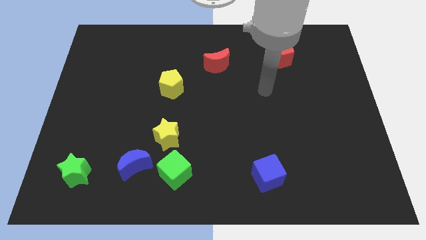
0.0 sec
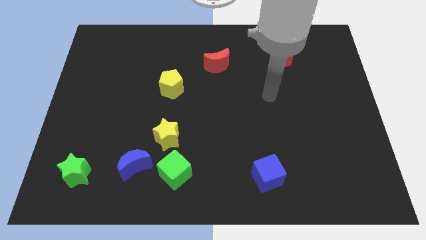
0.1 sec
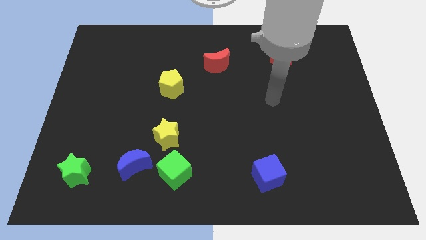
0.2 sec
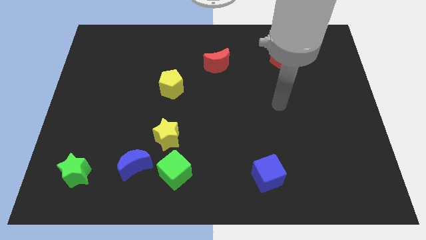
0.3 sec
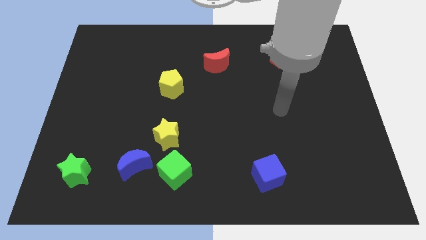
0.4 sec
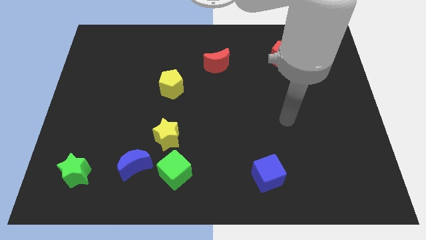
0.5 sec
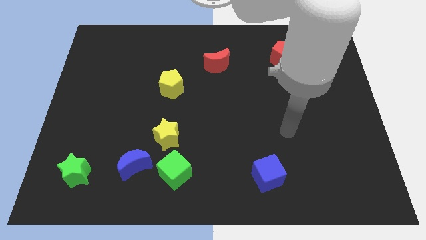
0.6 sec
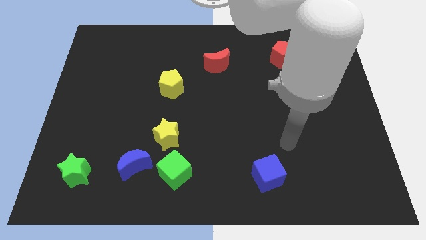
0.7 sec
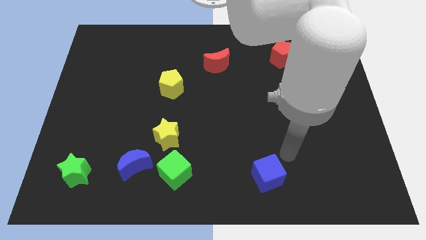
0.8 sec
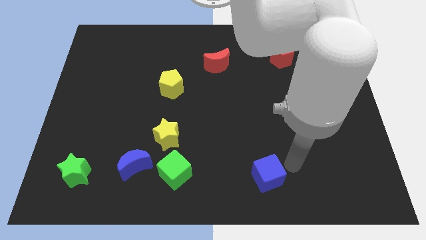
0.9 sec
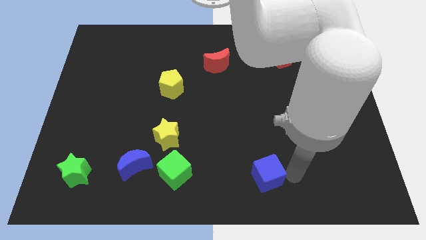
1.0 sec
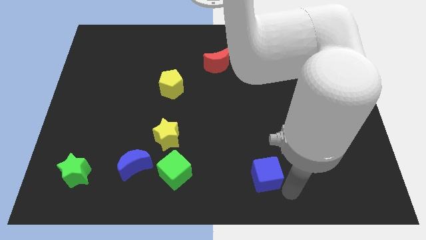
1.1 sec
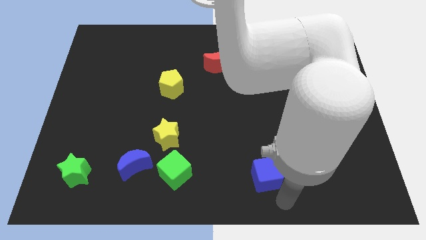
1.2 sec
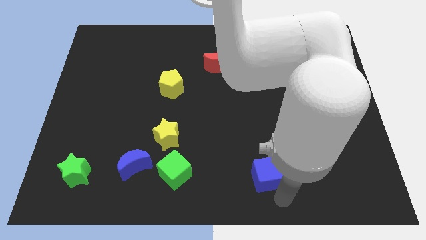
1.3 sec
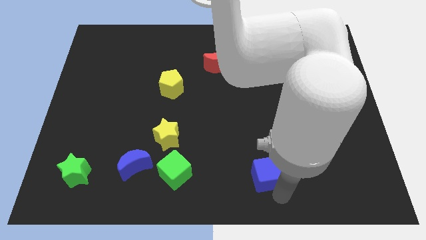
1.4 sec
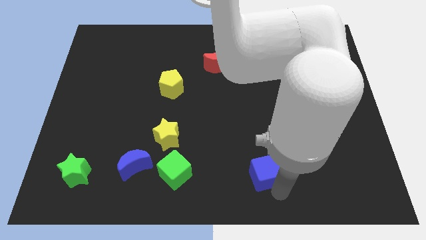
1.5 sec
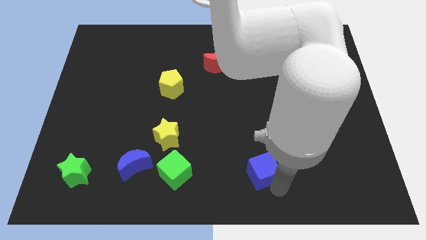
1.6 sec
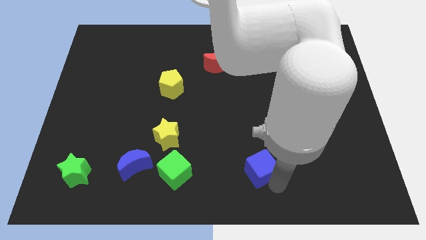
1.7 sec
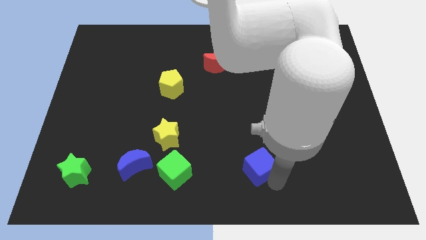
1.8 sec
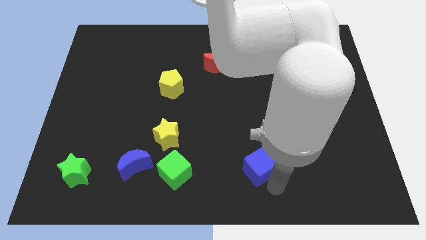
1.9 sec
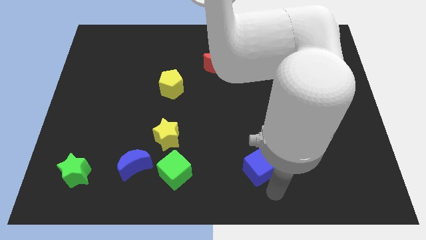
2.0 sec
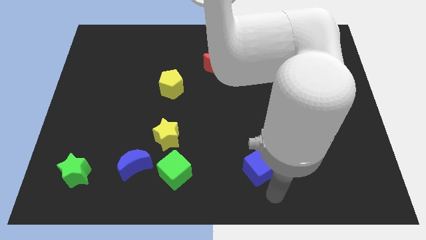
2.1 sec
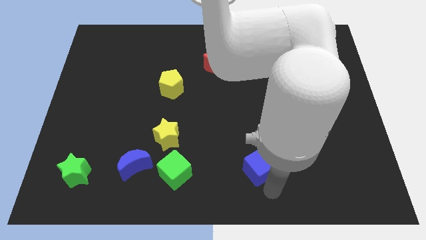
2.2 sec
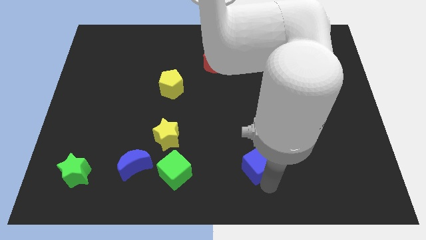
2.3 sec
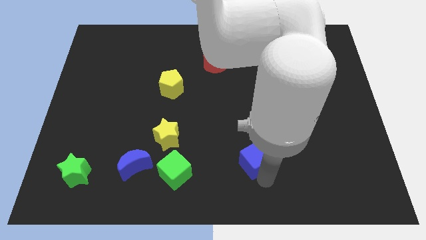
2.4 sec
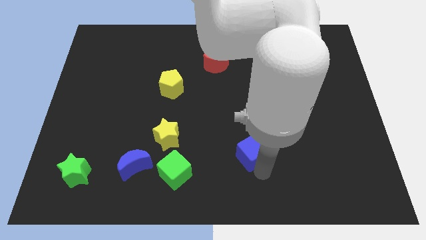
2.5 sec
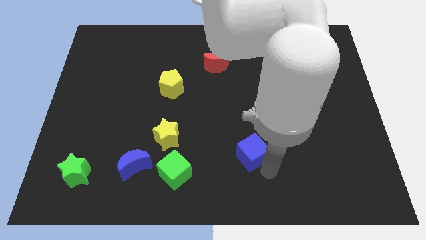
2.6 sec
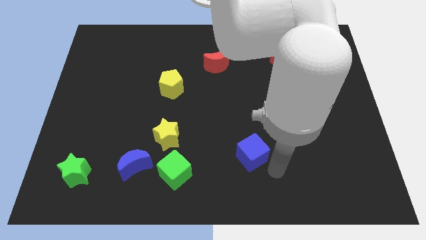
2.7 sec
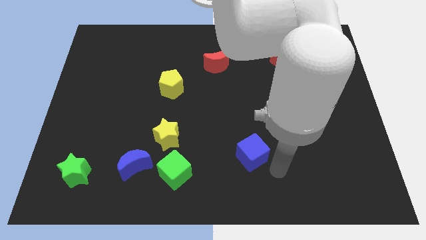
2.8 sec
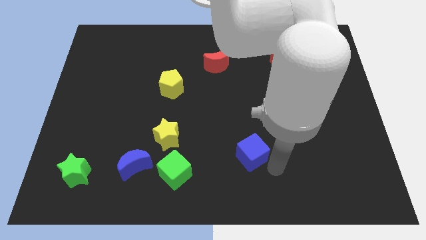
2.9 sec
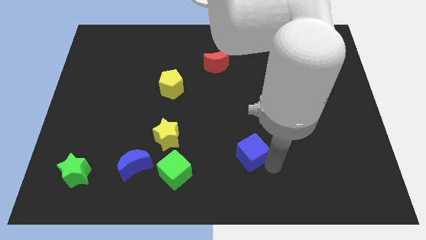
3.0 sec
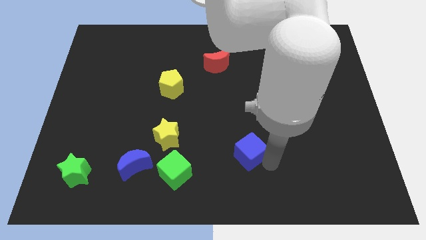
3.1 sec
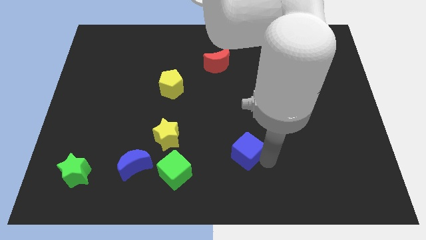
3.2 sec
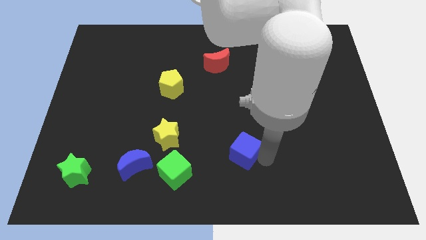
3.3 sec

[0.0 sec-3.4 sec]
slightly push the blue cube upwards and to the left

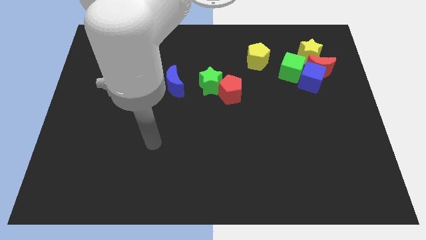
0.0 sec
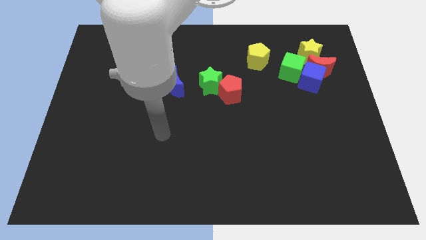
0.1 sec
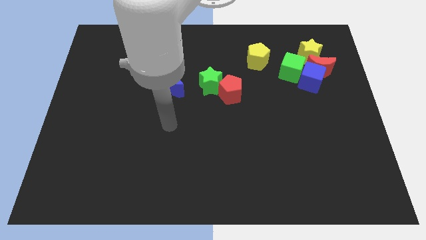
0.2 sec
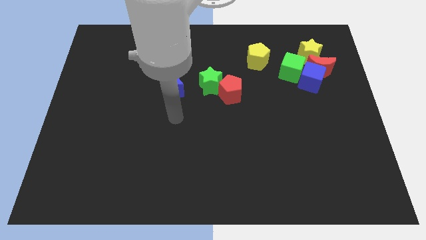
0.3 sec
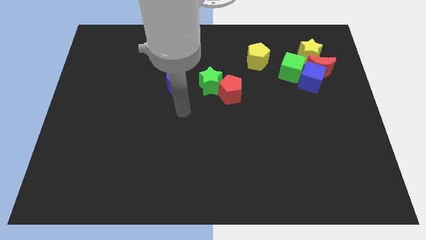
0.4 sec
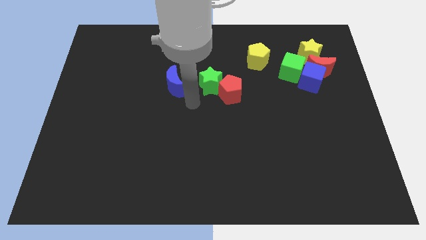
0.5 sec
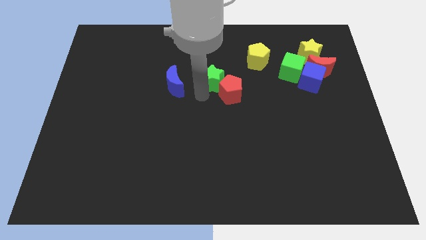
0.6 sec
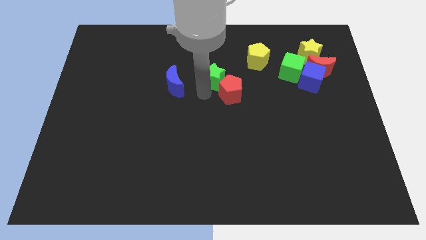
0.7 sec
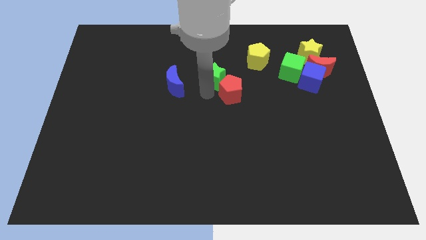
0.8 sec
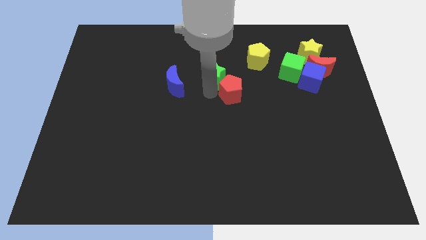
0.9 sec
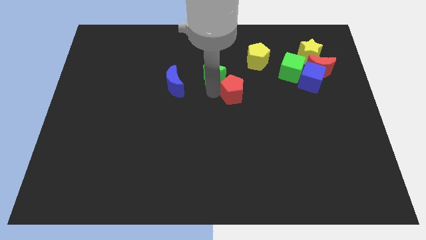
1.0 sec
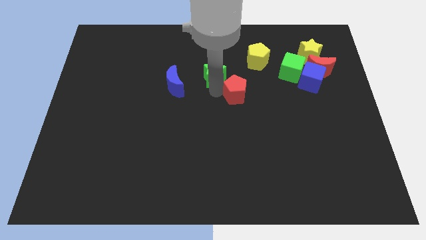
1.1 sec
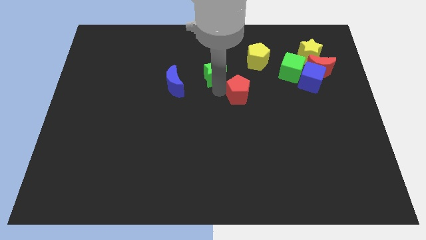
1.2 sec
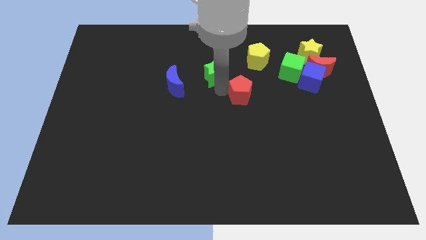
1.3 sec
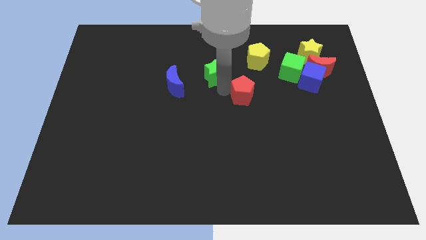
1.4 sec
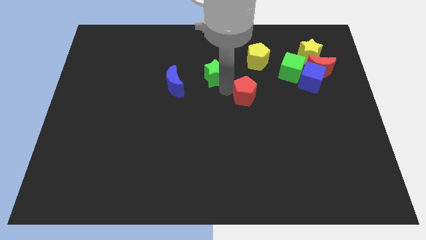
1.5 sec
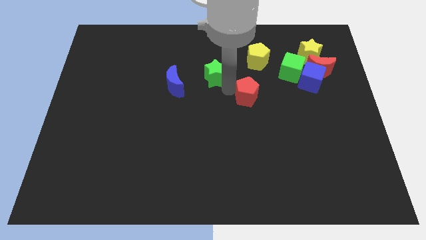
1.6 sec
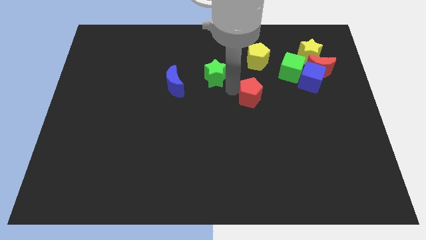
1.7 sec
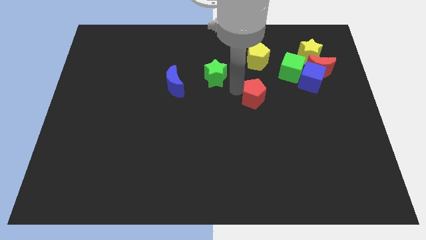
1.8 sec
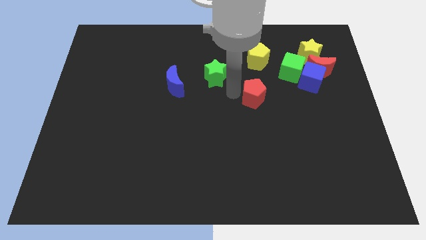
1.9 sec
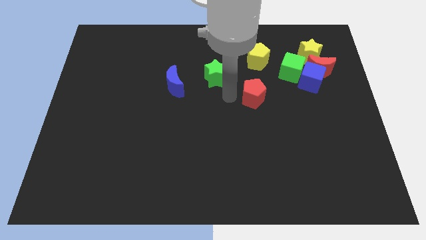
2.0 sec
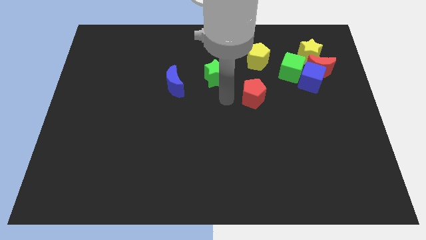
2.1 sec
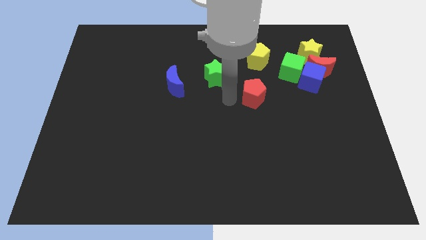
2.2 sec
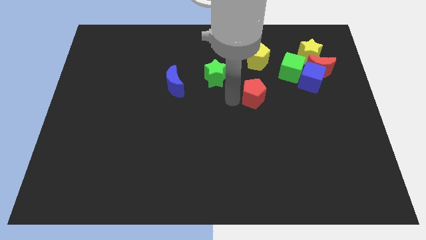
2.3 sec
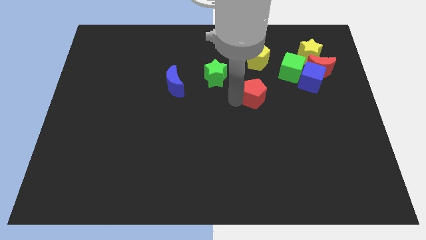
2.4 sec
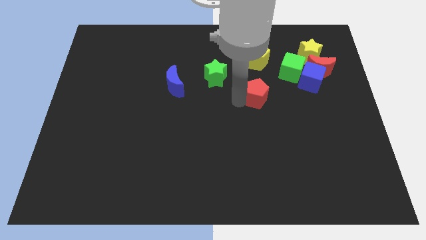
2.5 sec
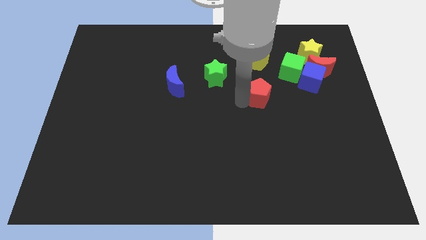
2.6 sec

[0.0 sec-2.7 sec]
slide the red pentagon to the right slightly

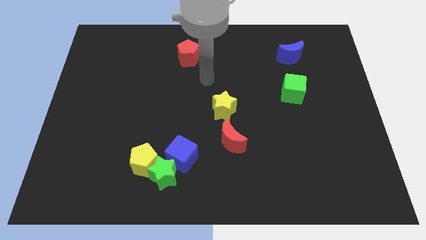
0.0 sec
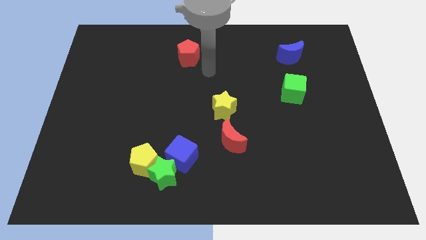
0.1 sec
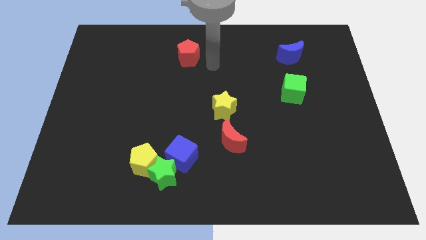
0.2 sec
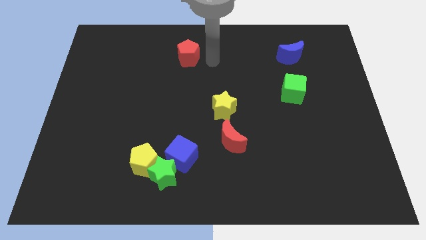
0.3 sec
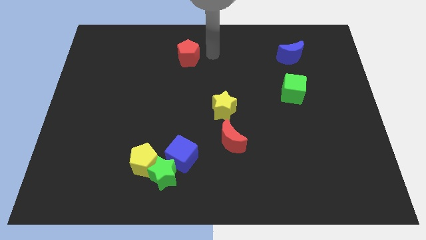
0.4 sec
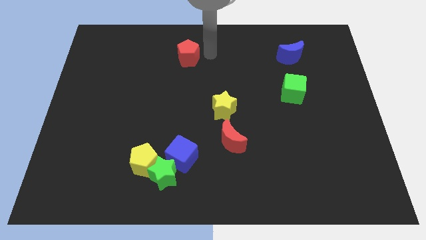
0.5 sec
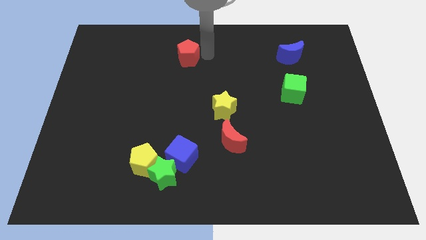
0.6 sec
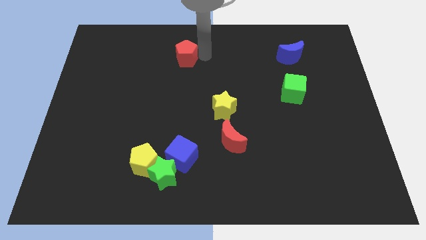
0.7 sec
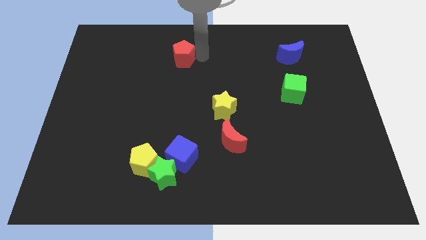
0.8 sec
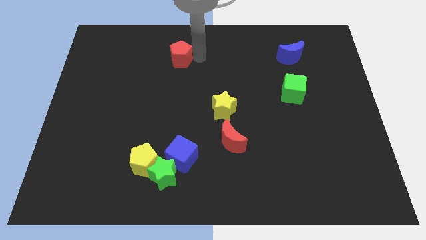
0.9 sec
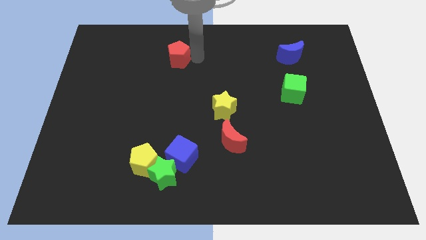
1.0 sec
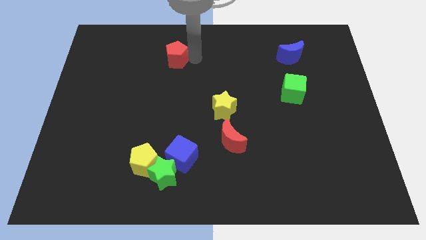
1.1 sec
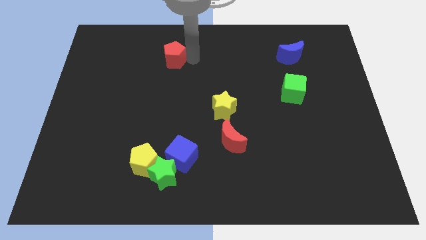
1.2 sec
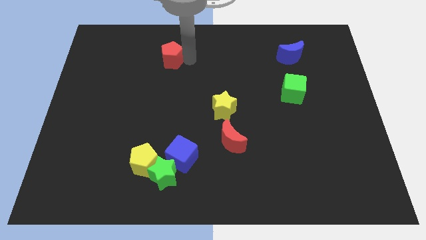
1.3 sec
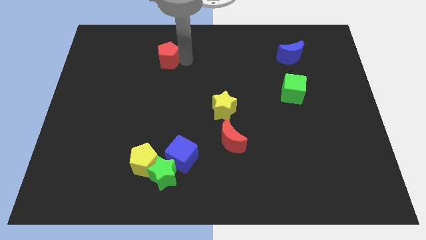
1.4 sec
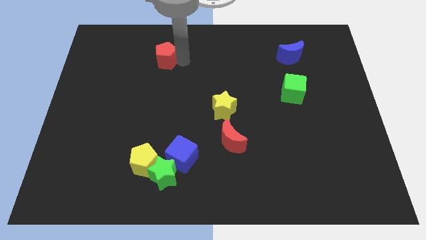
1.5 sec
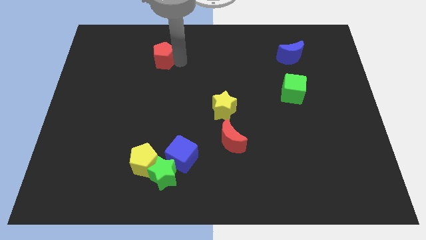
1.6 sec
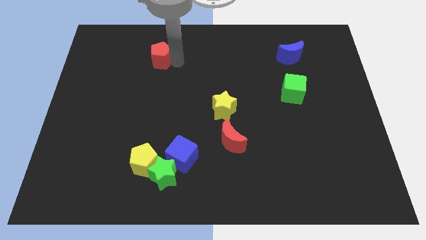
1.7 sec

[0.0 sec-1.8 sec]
slightly push the red pentagon to the left

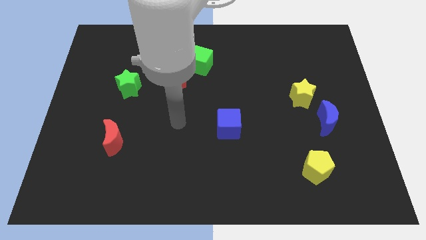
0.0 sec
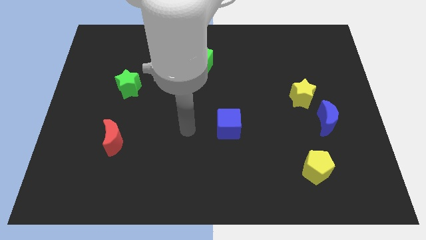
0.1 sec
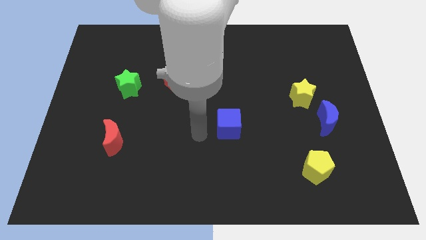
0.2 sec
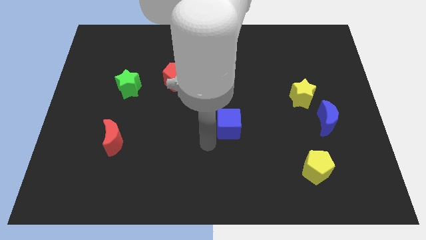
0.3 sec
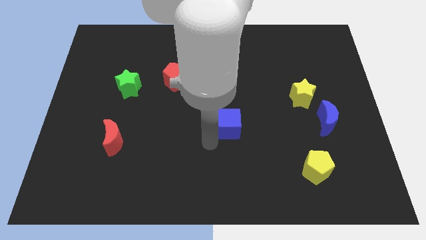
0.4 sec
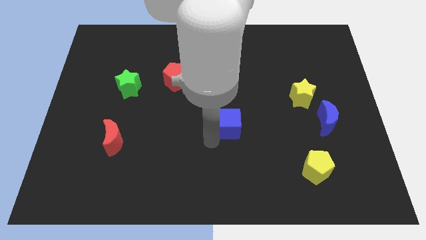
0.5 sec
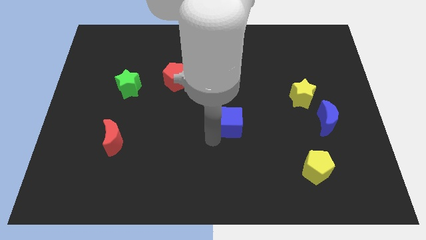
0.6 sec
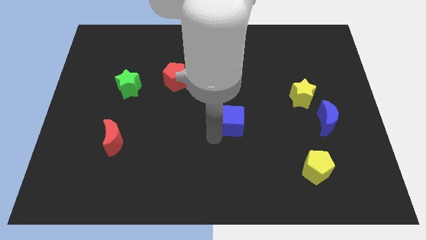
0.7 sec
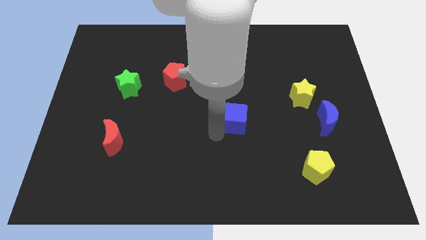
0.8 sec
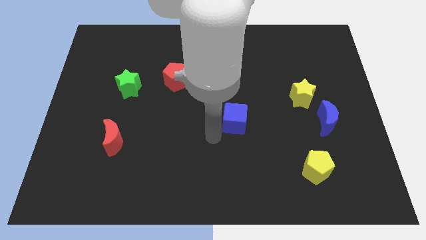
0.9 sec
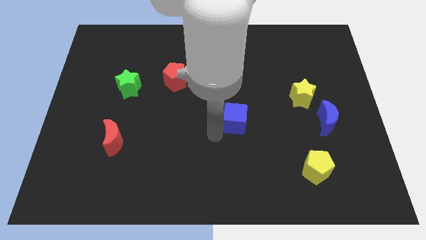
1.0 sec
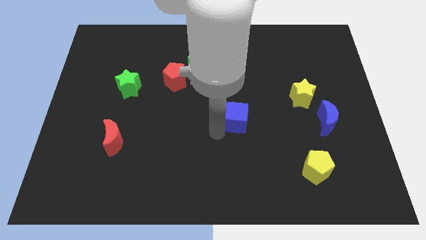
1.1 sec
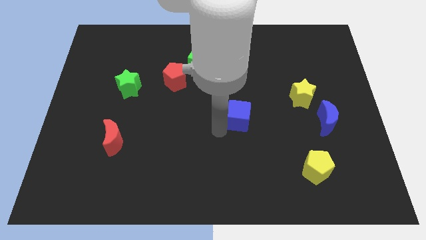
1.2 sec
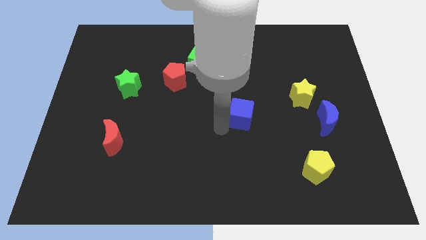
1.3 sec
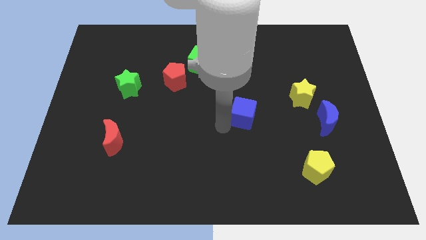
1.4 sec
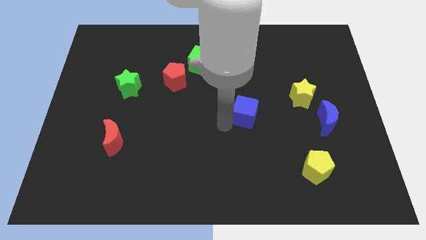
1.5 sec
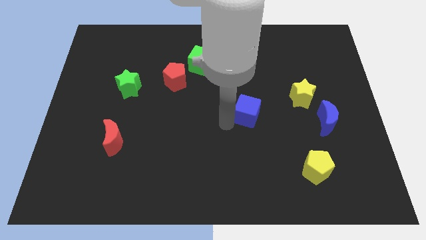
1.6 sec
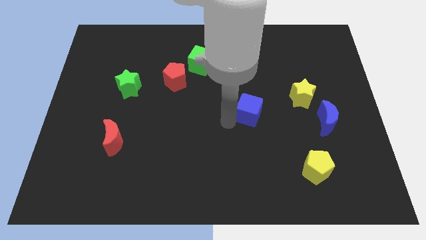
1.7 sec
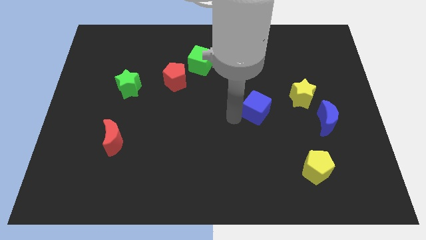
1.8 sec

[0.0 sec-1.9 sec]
push the blue cube diagonally up and to the right a little bit
